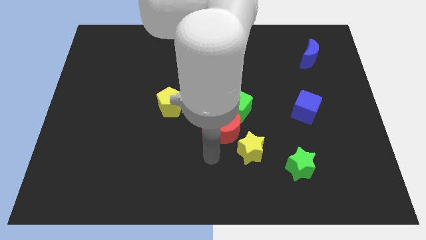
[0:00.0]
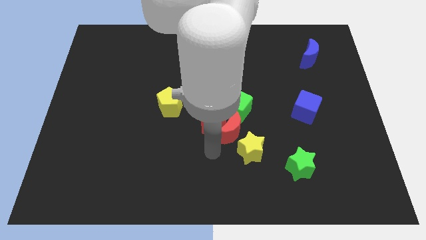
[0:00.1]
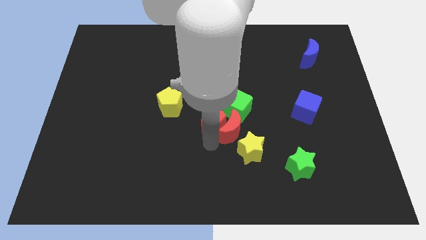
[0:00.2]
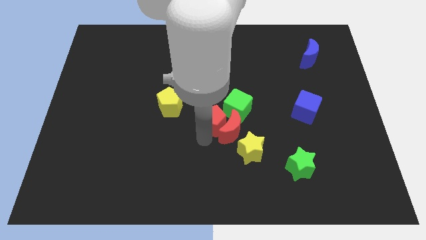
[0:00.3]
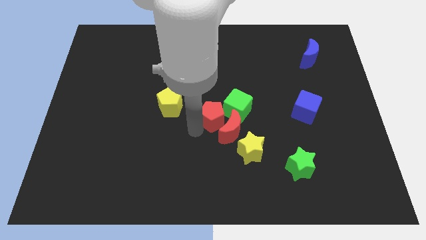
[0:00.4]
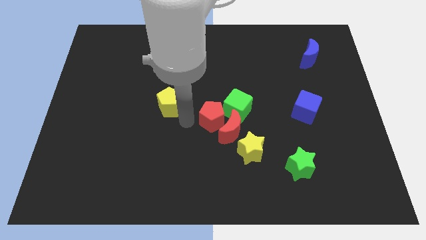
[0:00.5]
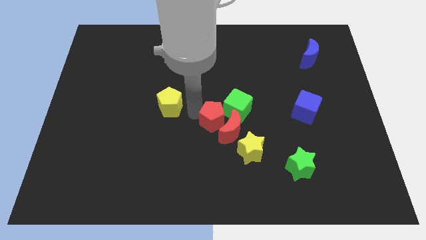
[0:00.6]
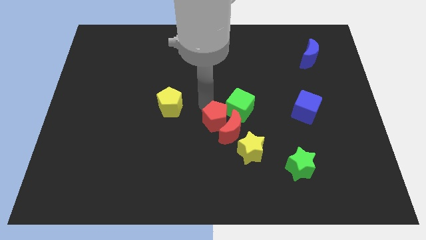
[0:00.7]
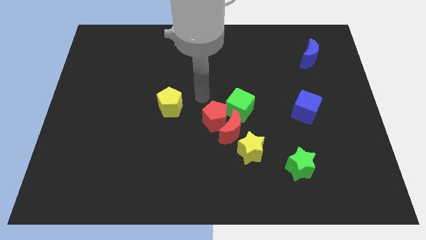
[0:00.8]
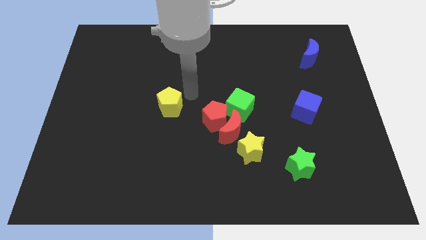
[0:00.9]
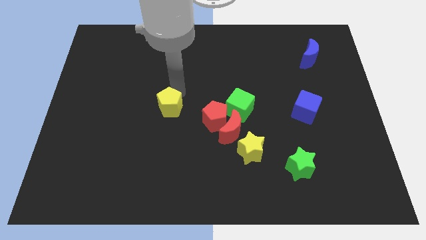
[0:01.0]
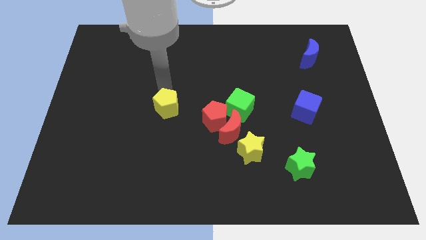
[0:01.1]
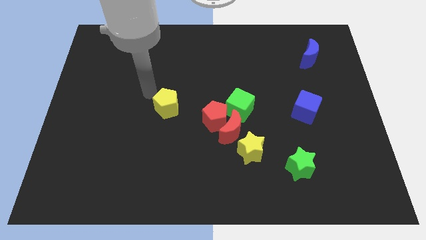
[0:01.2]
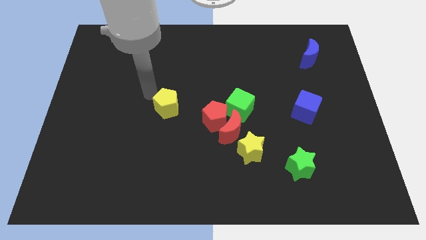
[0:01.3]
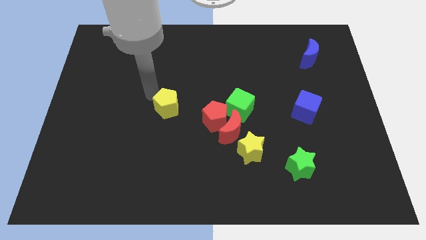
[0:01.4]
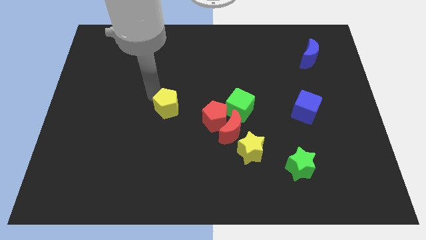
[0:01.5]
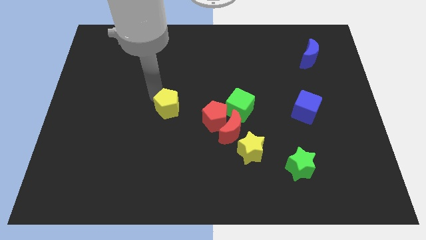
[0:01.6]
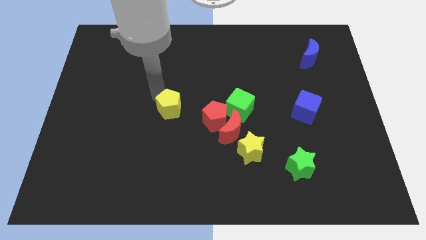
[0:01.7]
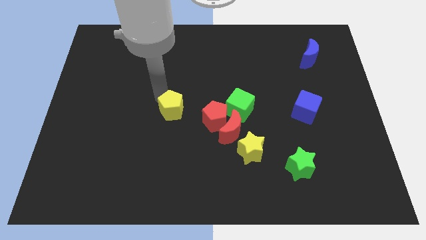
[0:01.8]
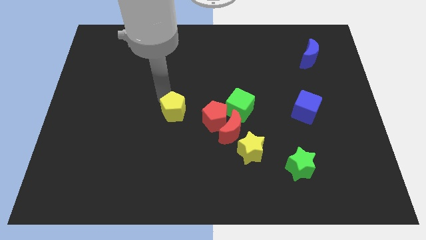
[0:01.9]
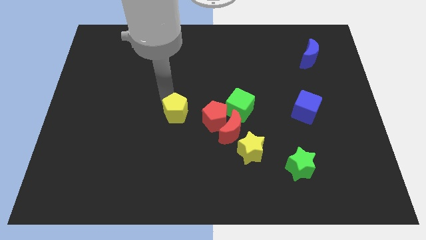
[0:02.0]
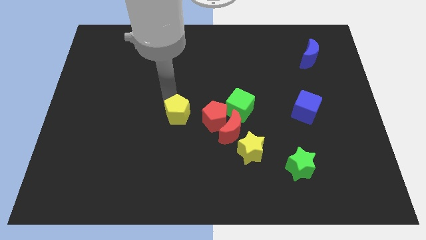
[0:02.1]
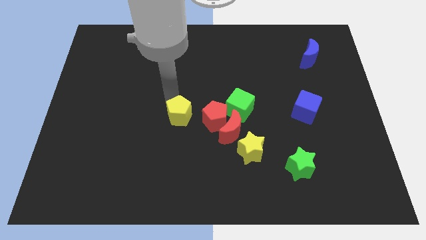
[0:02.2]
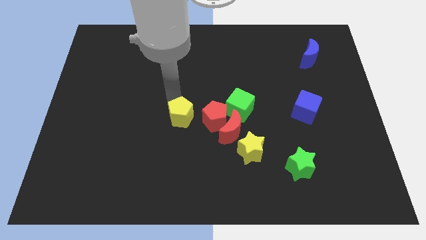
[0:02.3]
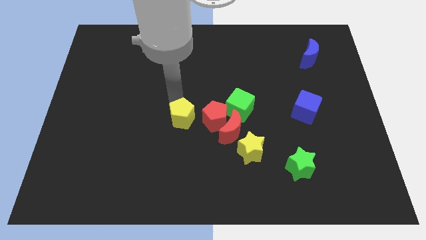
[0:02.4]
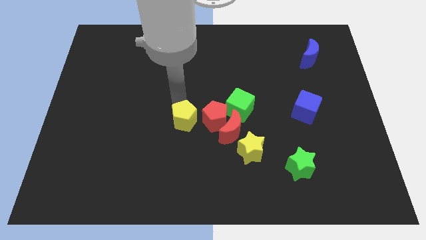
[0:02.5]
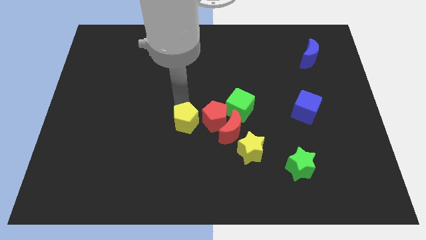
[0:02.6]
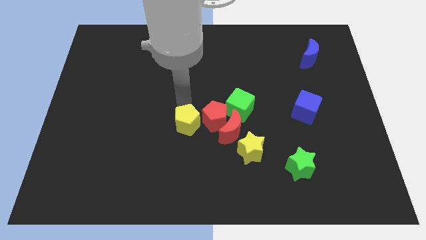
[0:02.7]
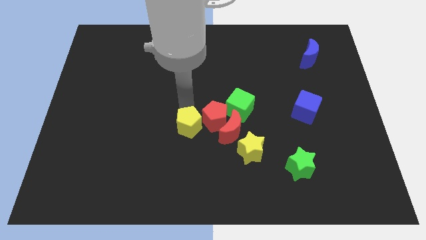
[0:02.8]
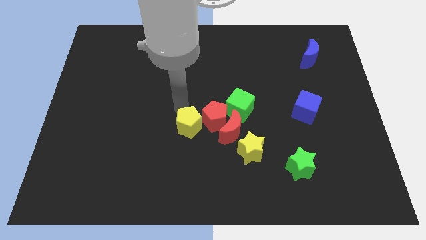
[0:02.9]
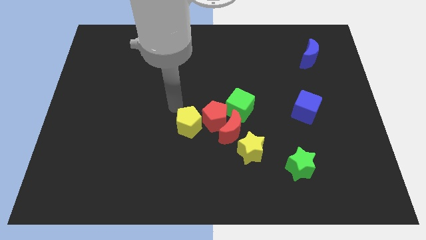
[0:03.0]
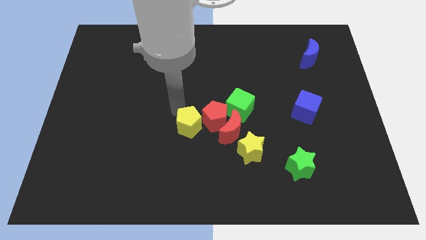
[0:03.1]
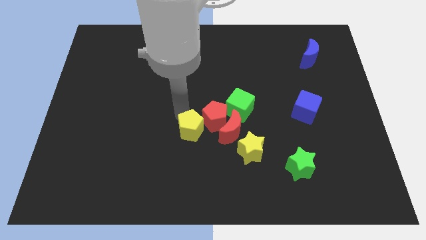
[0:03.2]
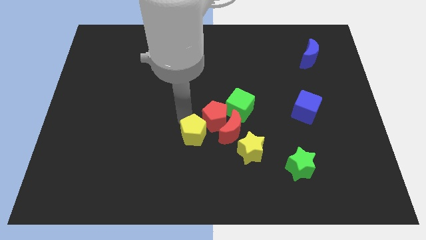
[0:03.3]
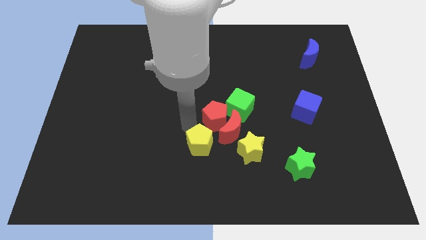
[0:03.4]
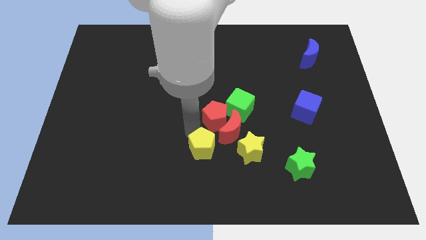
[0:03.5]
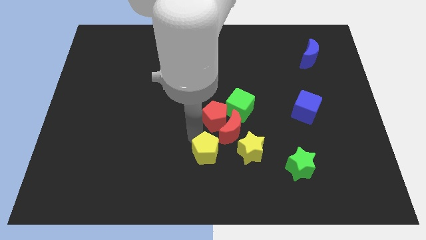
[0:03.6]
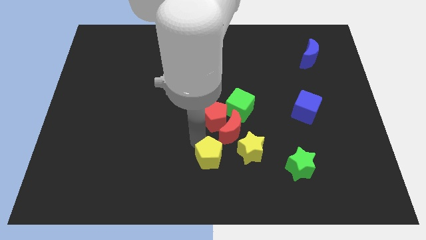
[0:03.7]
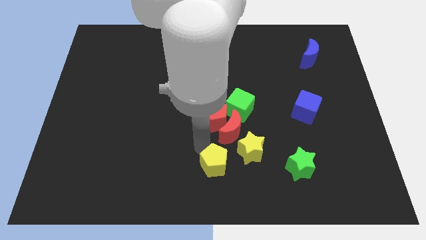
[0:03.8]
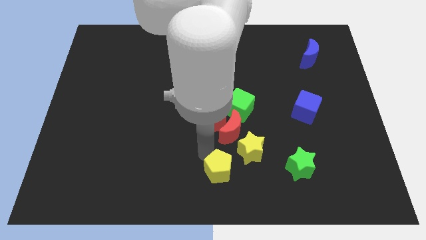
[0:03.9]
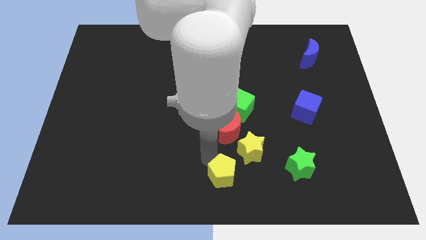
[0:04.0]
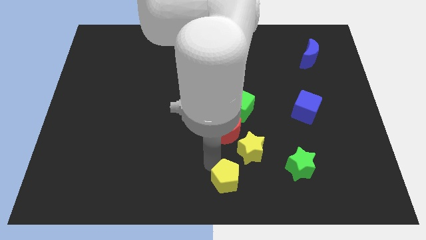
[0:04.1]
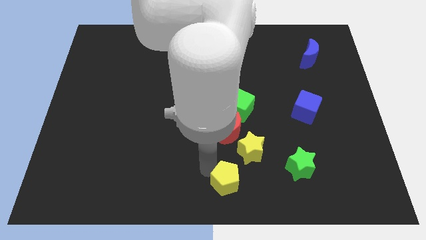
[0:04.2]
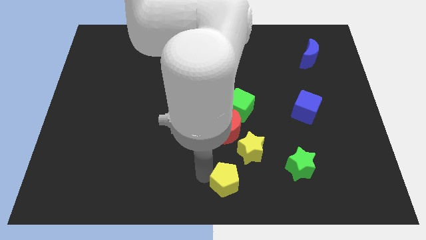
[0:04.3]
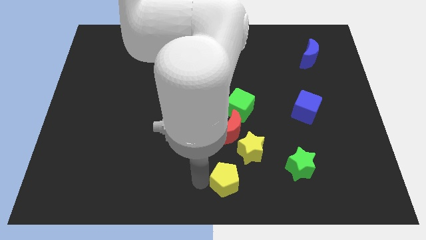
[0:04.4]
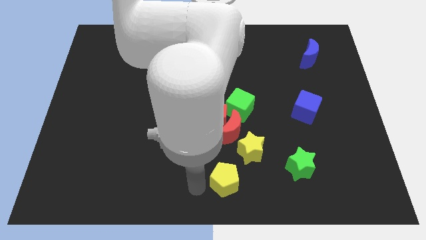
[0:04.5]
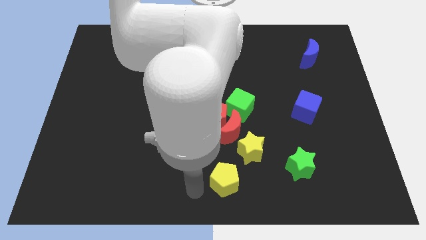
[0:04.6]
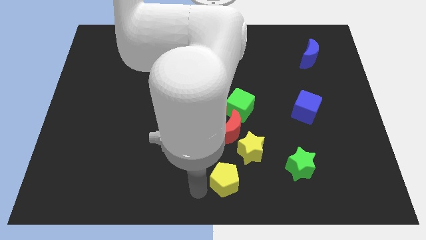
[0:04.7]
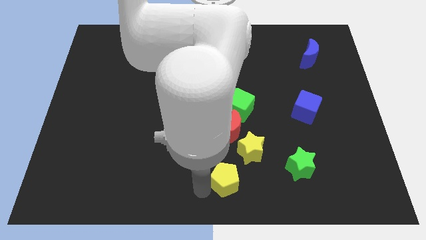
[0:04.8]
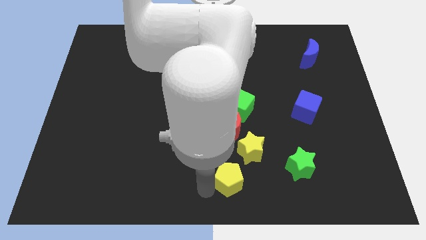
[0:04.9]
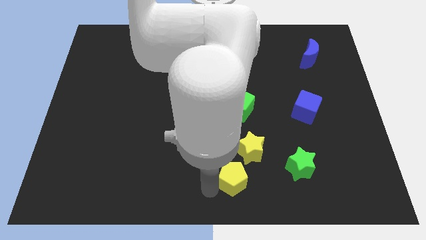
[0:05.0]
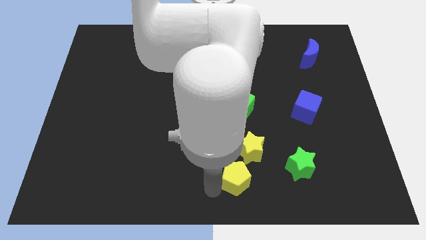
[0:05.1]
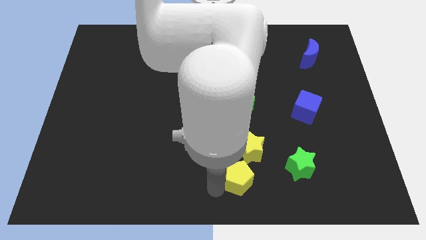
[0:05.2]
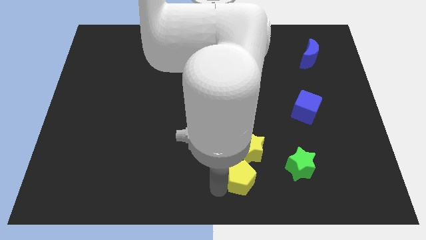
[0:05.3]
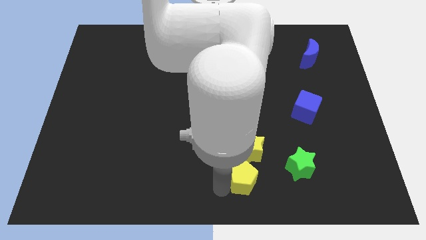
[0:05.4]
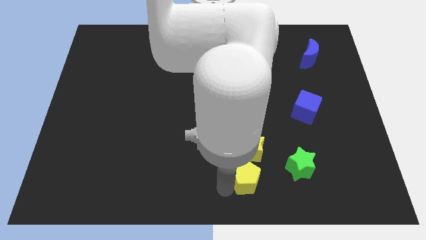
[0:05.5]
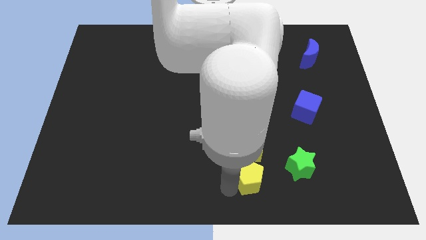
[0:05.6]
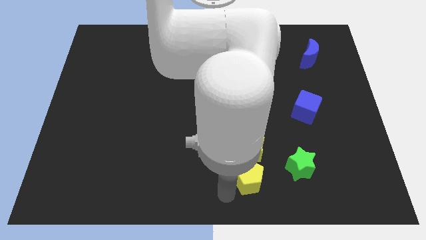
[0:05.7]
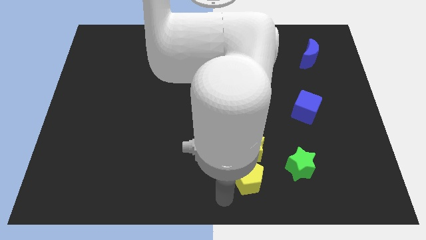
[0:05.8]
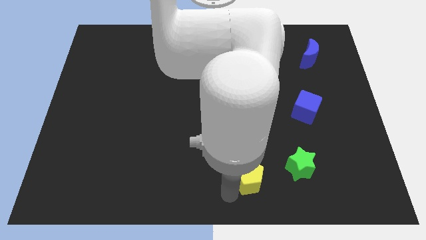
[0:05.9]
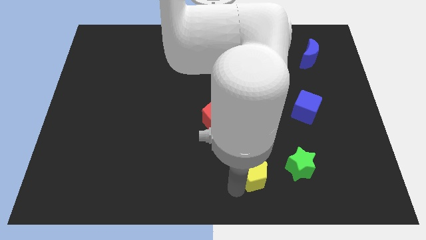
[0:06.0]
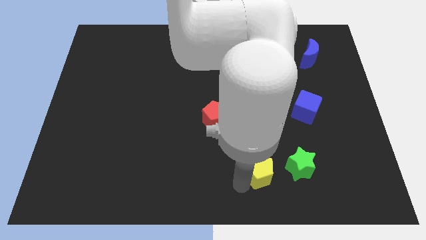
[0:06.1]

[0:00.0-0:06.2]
slide the yellow pentagon to the bottom right of the red moon

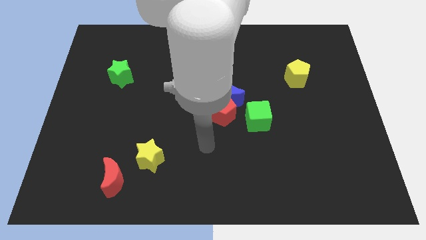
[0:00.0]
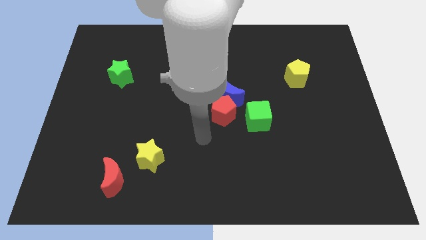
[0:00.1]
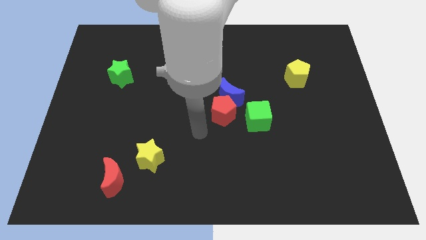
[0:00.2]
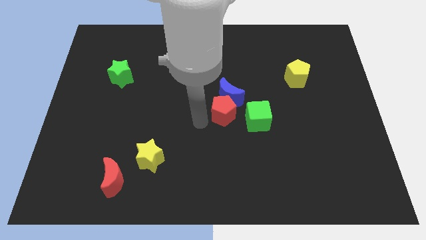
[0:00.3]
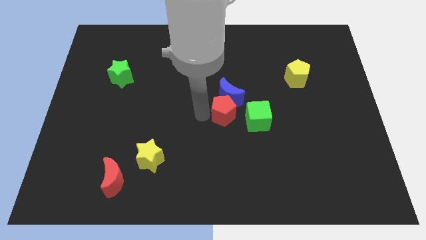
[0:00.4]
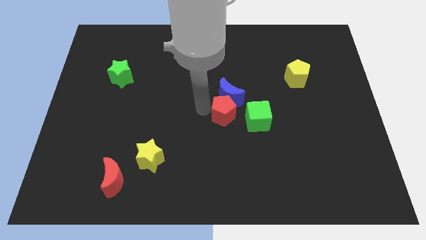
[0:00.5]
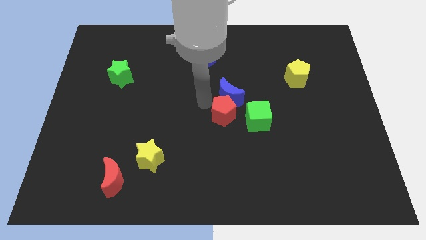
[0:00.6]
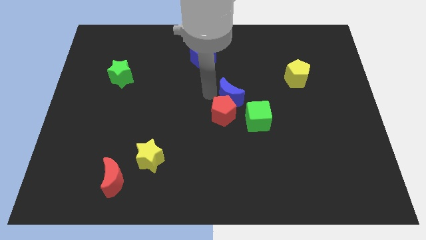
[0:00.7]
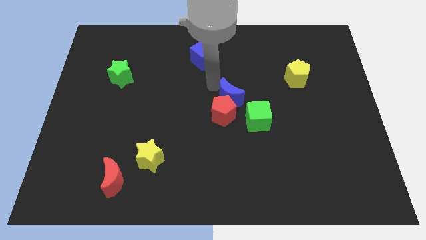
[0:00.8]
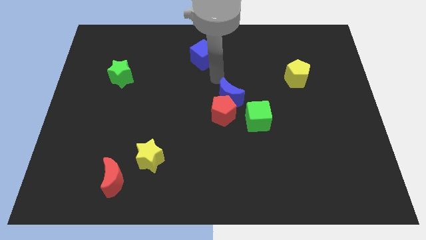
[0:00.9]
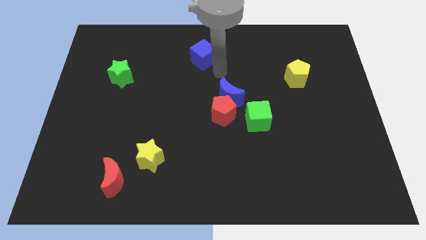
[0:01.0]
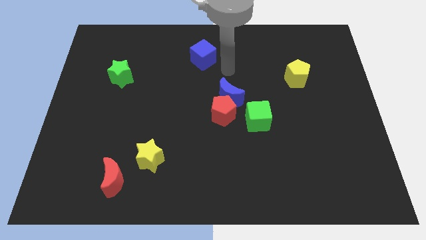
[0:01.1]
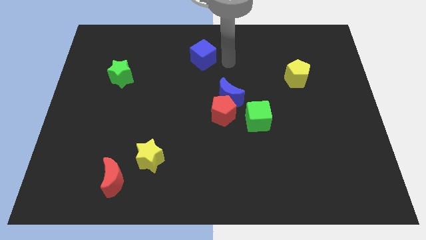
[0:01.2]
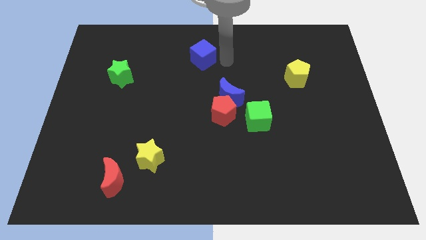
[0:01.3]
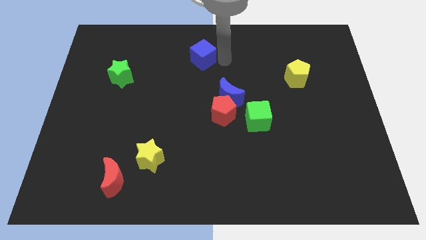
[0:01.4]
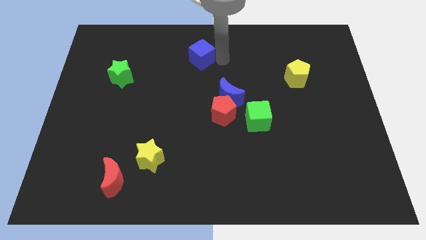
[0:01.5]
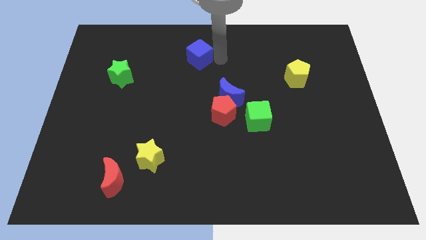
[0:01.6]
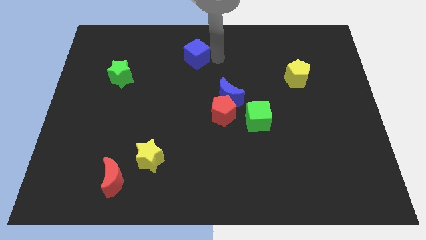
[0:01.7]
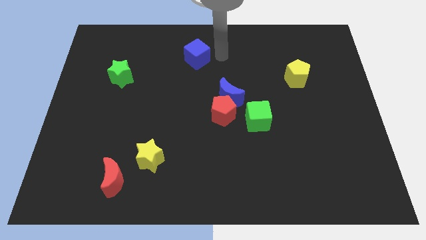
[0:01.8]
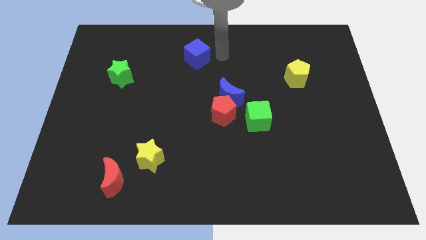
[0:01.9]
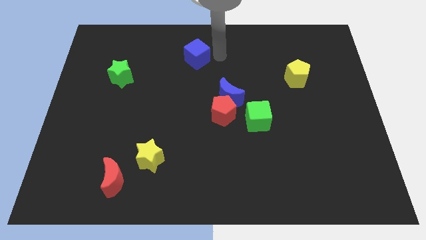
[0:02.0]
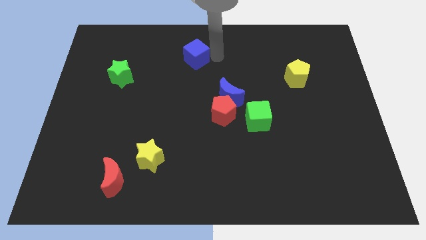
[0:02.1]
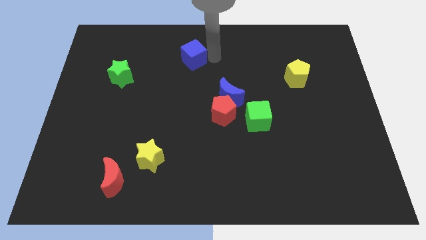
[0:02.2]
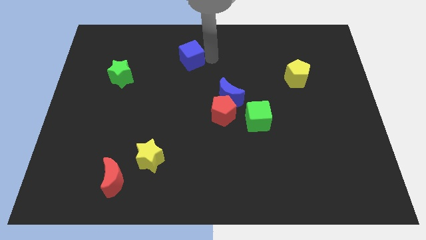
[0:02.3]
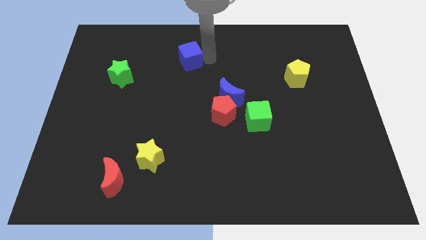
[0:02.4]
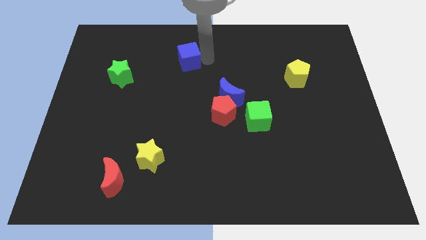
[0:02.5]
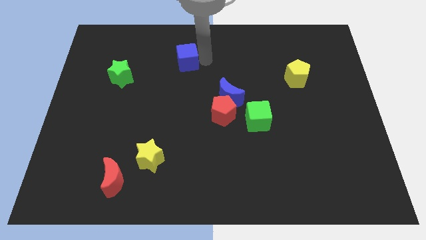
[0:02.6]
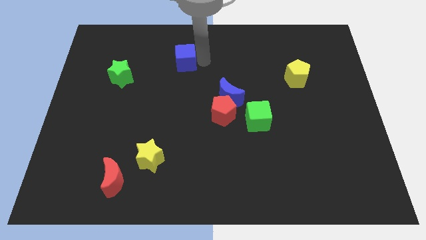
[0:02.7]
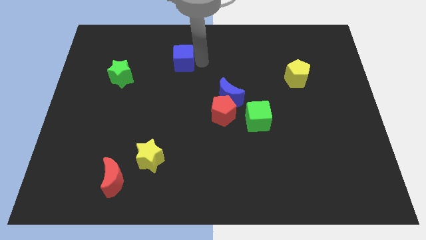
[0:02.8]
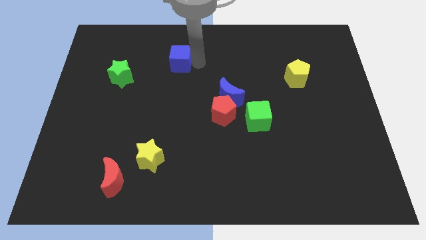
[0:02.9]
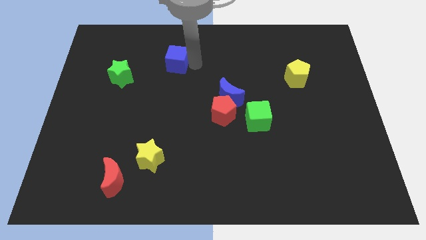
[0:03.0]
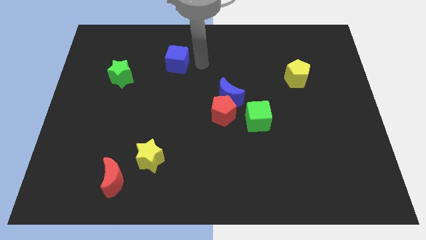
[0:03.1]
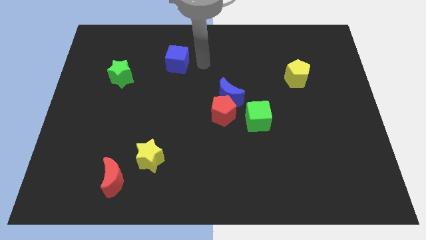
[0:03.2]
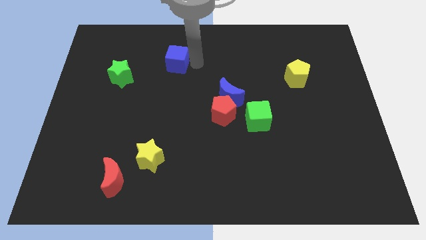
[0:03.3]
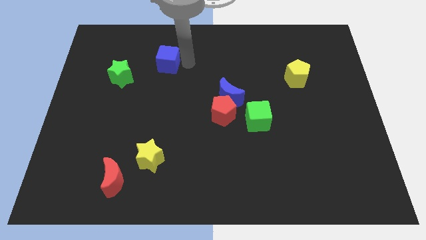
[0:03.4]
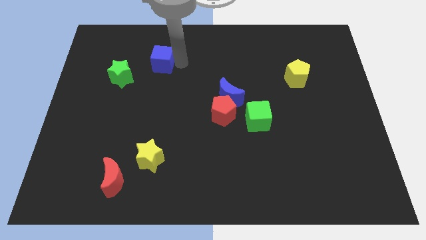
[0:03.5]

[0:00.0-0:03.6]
put the blue cube to the top right side of the green star
